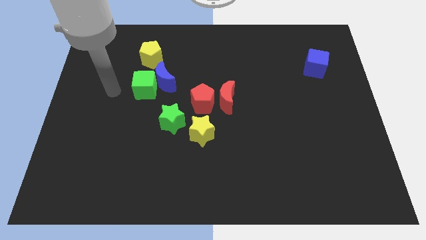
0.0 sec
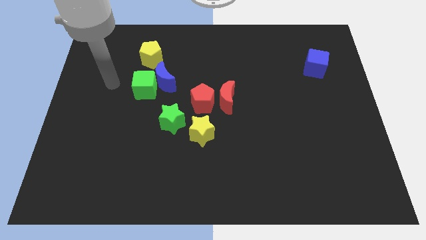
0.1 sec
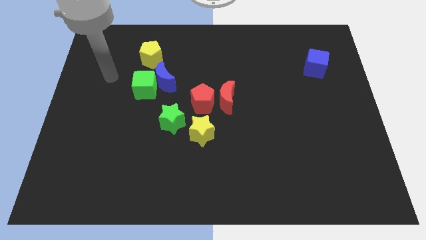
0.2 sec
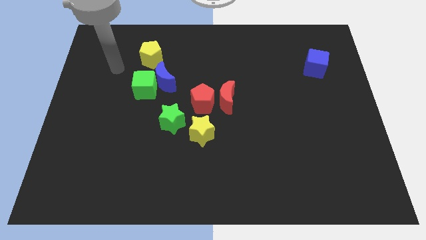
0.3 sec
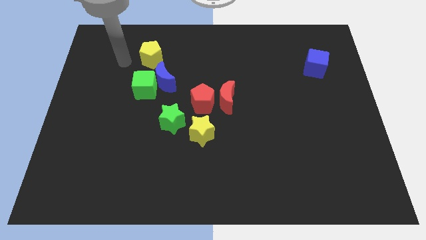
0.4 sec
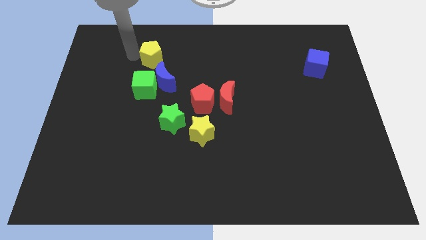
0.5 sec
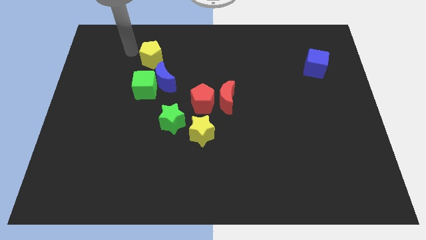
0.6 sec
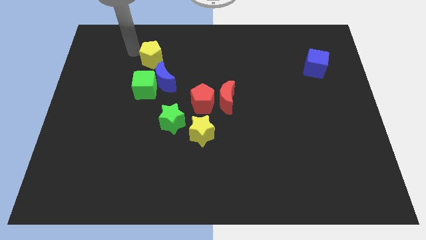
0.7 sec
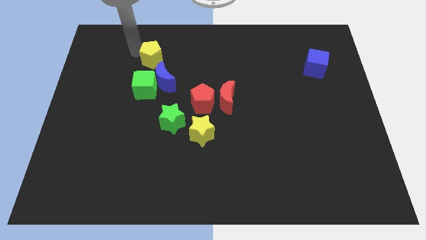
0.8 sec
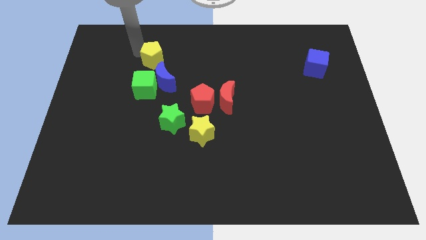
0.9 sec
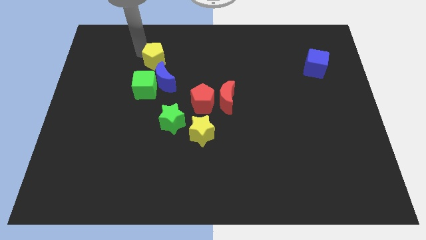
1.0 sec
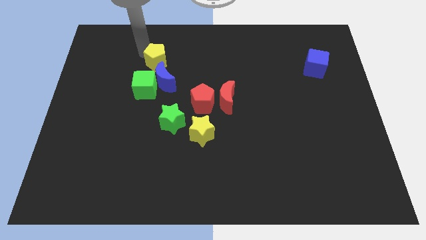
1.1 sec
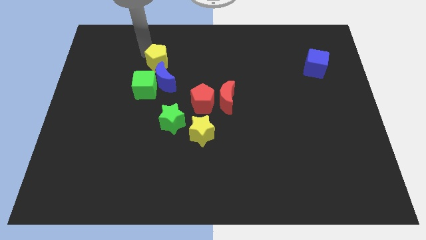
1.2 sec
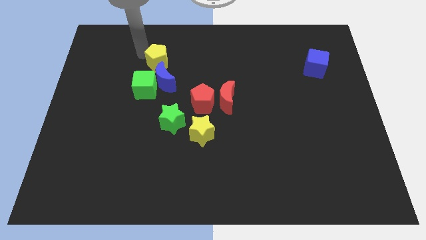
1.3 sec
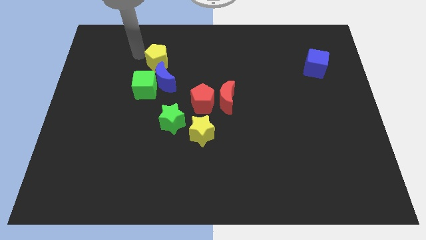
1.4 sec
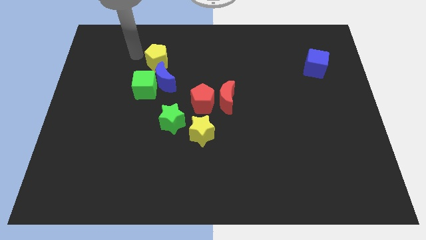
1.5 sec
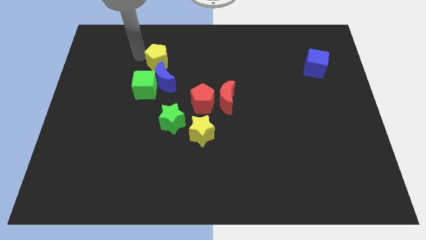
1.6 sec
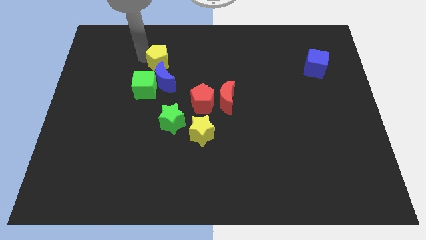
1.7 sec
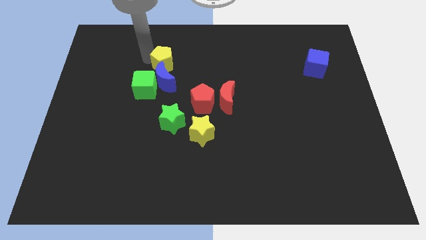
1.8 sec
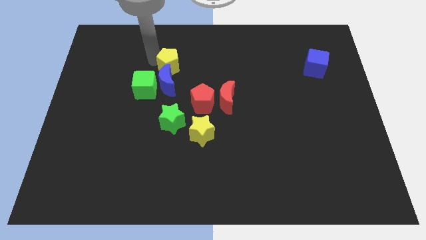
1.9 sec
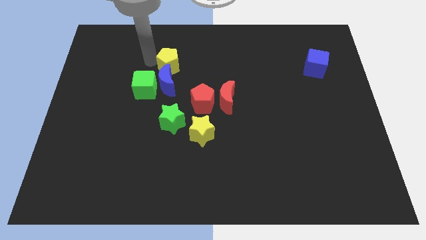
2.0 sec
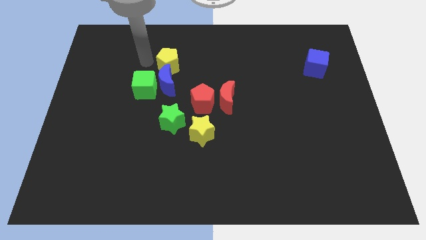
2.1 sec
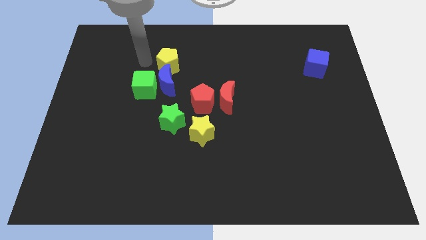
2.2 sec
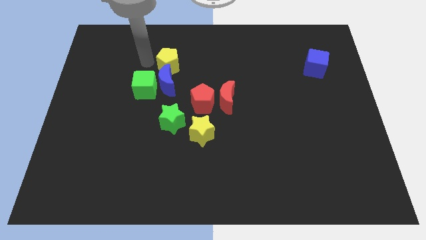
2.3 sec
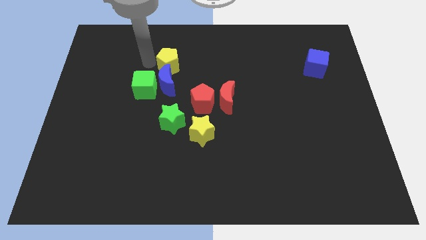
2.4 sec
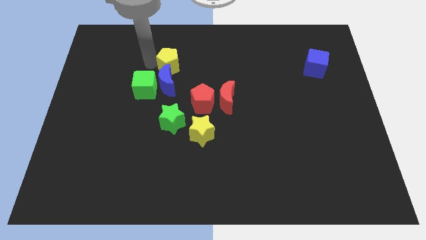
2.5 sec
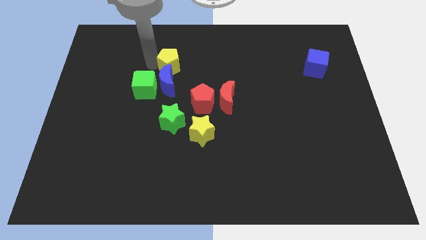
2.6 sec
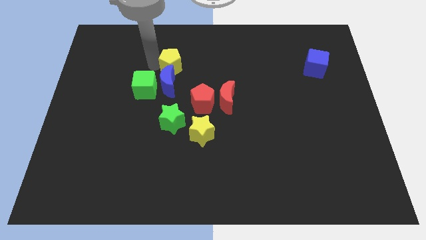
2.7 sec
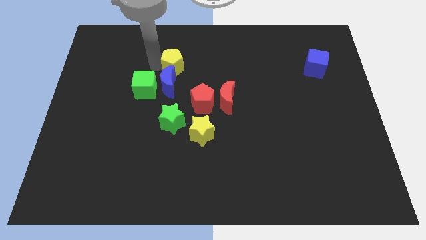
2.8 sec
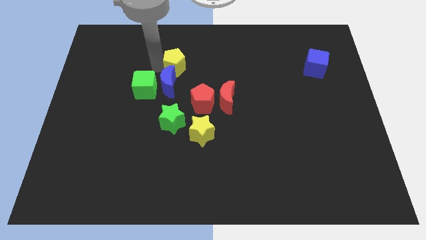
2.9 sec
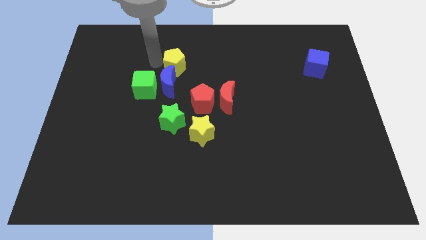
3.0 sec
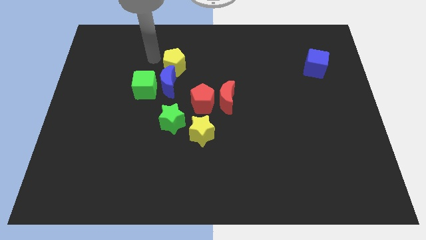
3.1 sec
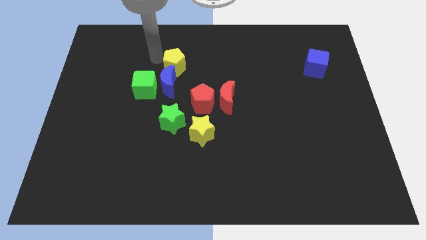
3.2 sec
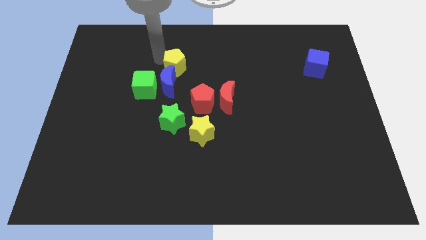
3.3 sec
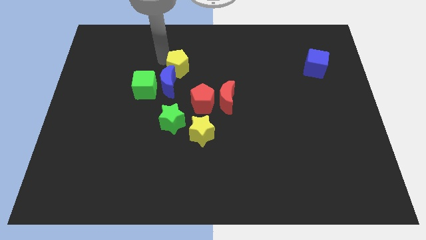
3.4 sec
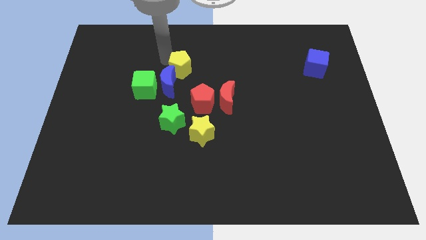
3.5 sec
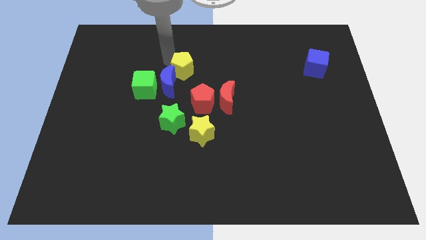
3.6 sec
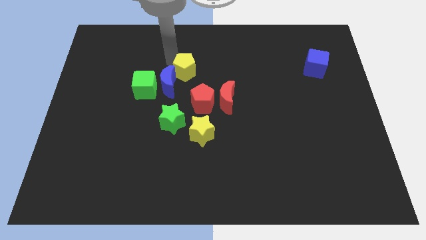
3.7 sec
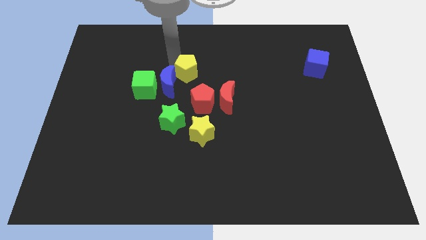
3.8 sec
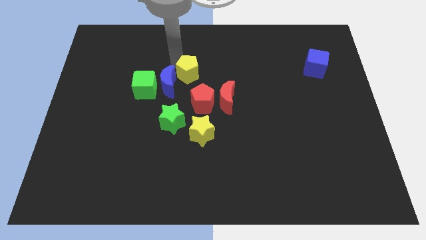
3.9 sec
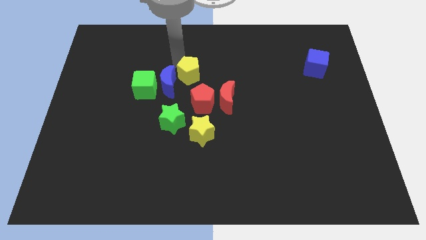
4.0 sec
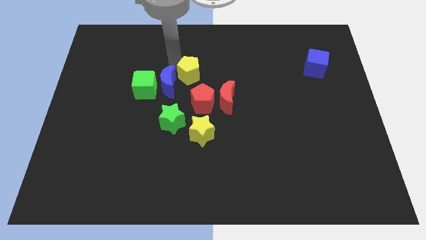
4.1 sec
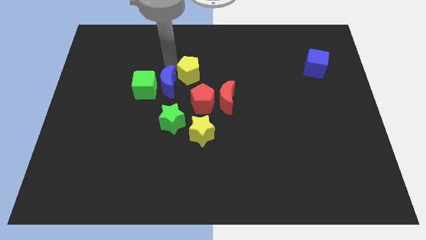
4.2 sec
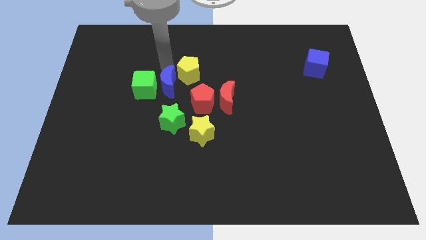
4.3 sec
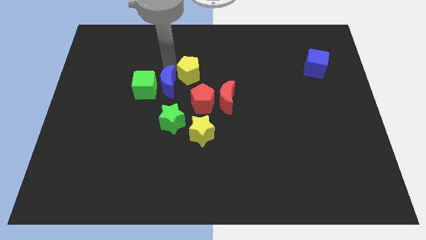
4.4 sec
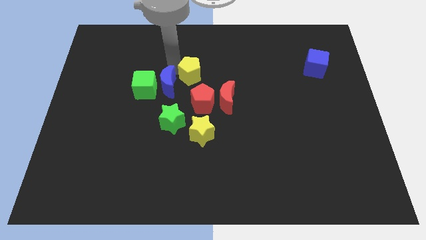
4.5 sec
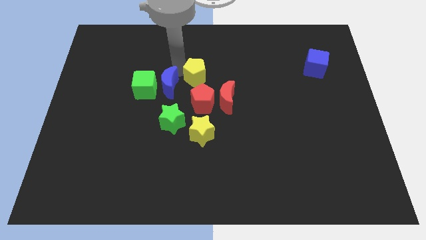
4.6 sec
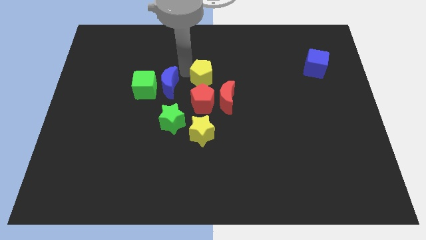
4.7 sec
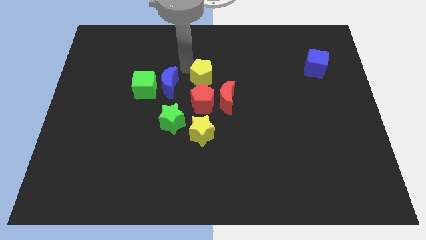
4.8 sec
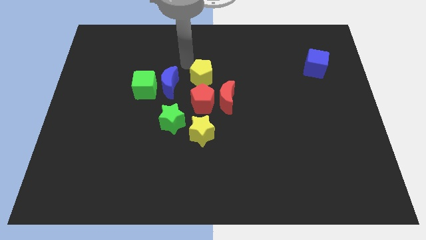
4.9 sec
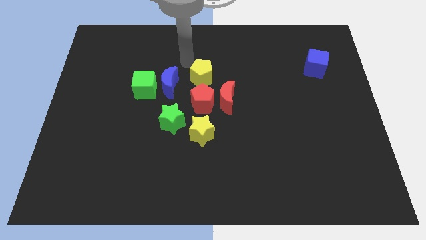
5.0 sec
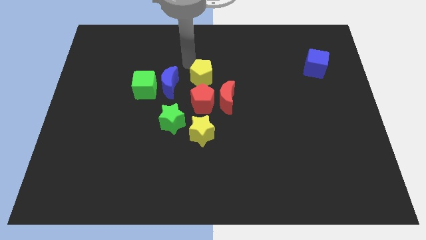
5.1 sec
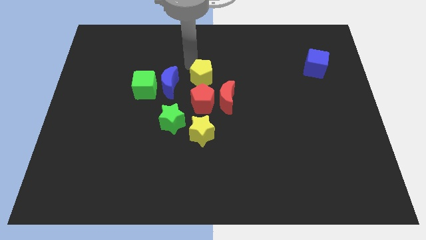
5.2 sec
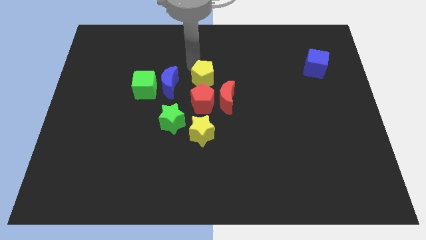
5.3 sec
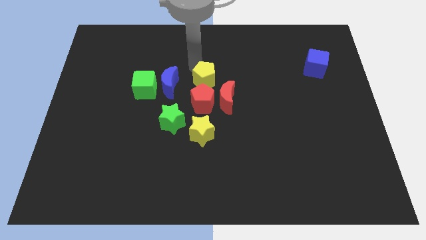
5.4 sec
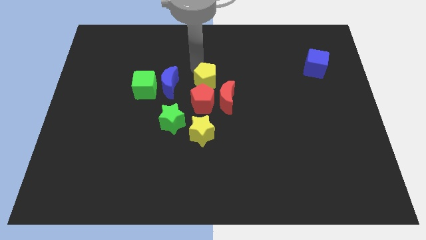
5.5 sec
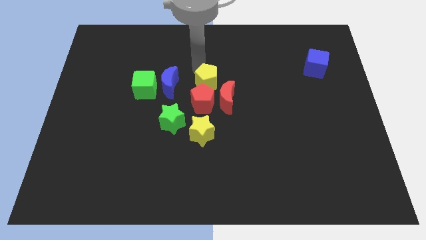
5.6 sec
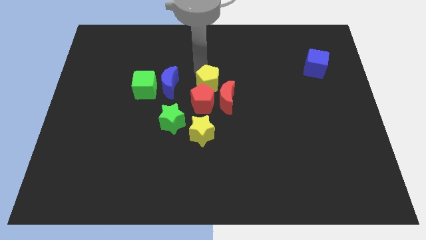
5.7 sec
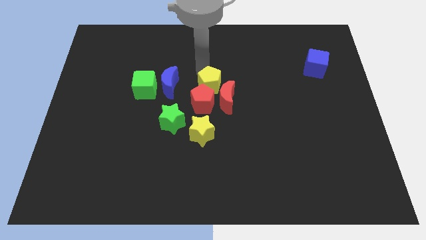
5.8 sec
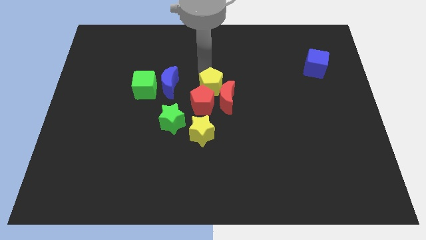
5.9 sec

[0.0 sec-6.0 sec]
move the yellow pentagon next to the red moon
